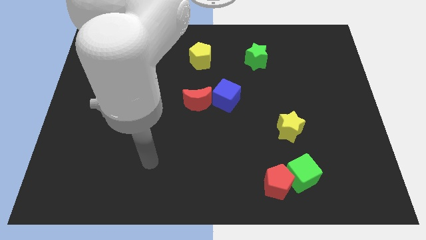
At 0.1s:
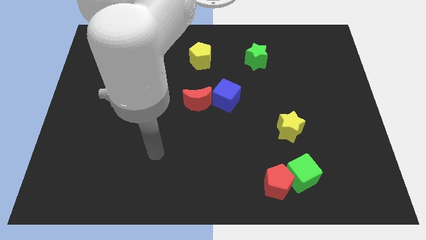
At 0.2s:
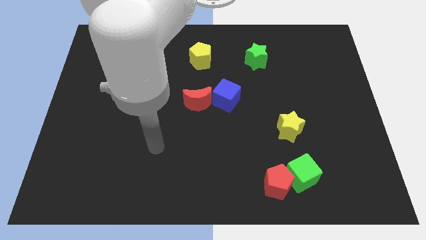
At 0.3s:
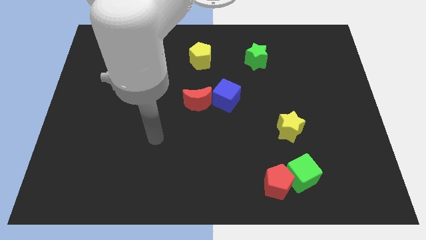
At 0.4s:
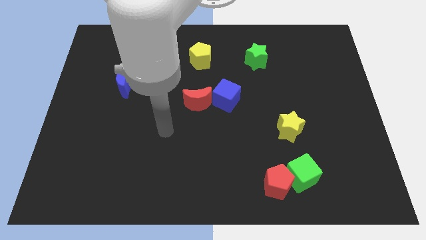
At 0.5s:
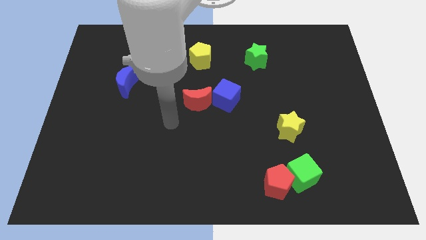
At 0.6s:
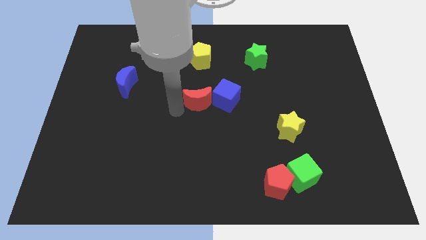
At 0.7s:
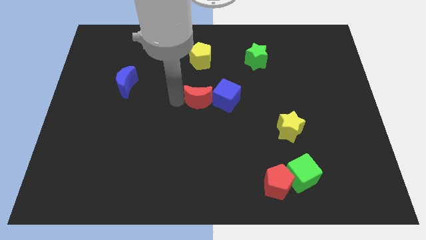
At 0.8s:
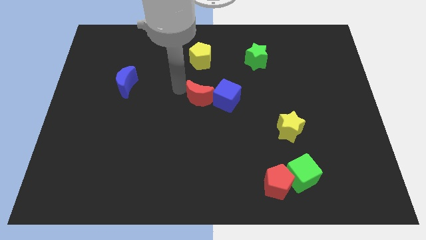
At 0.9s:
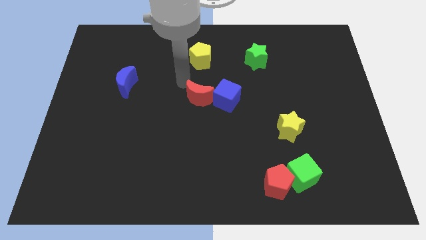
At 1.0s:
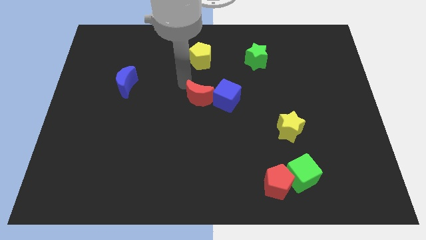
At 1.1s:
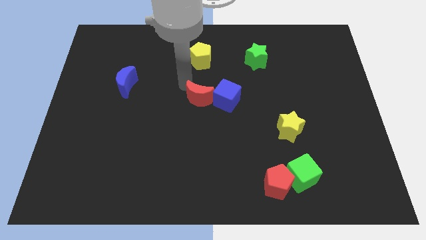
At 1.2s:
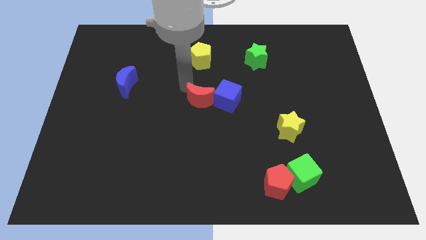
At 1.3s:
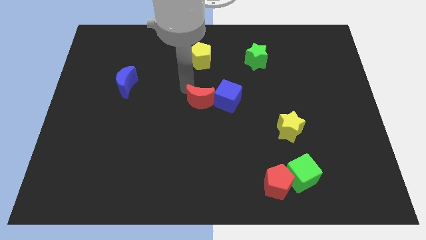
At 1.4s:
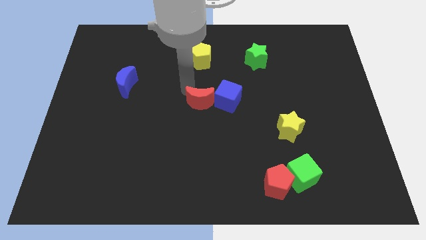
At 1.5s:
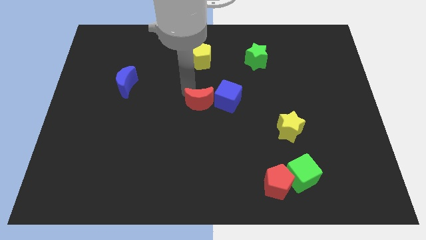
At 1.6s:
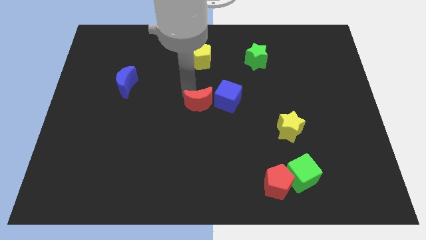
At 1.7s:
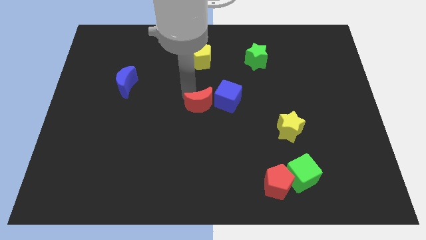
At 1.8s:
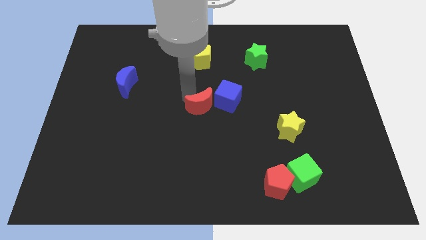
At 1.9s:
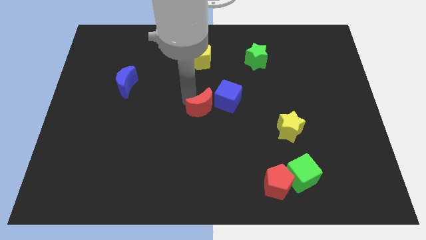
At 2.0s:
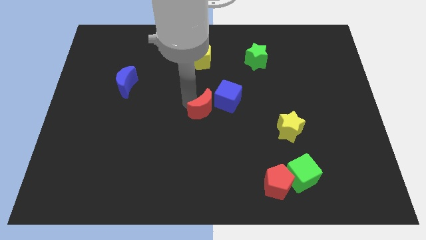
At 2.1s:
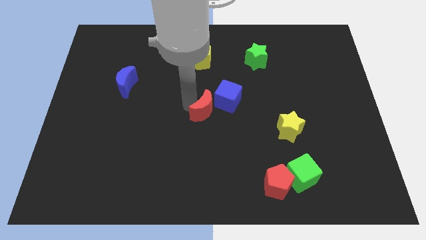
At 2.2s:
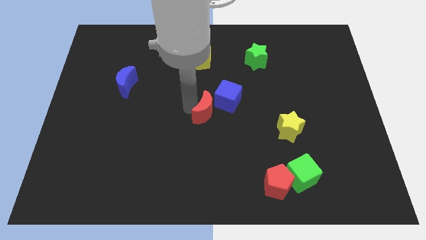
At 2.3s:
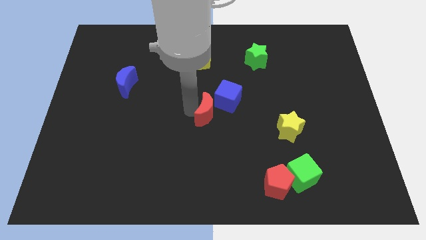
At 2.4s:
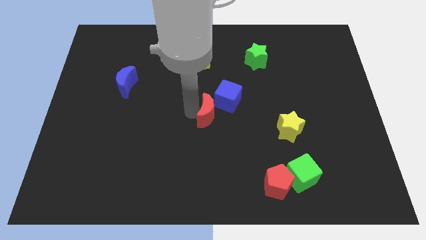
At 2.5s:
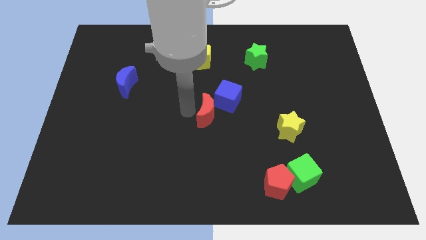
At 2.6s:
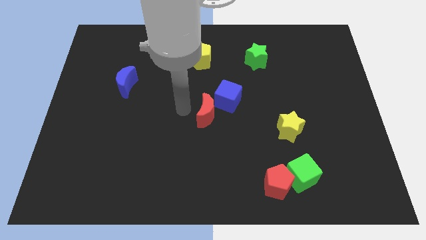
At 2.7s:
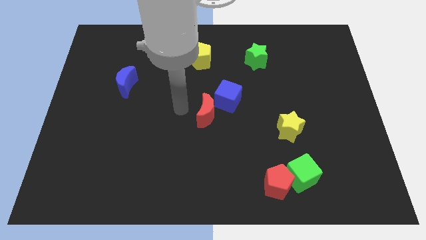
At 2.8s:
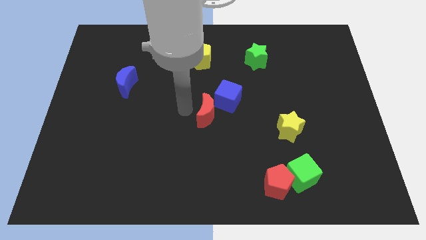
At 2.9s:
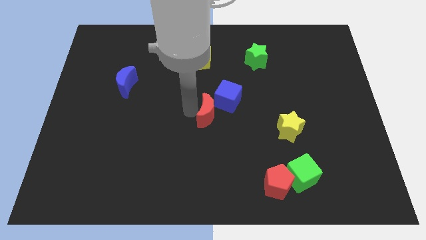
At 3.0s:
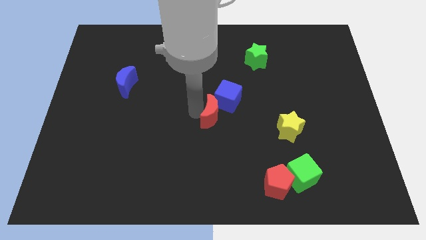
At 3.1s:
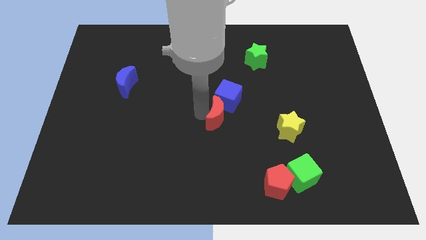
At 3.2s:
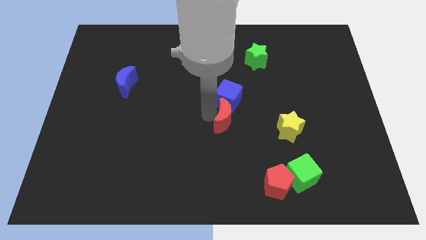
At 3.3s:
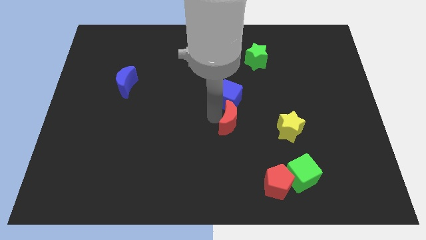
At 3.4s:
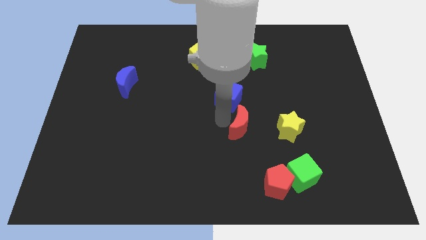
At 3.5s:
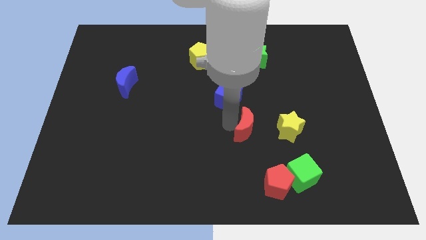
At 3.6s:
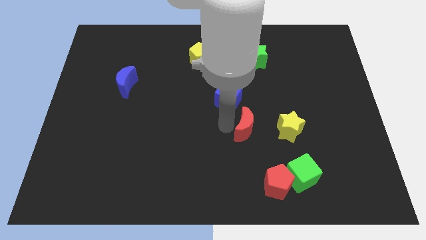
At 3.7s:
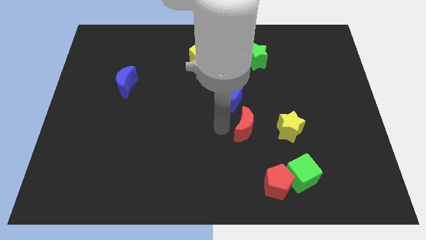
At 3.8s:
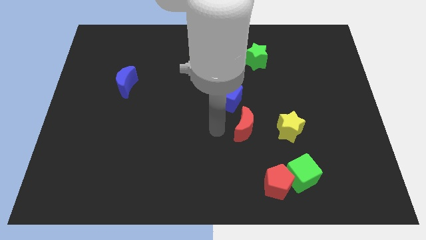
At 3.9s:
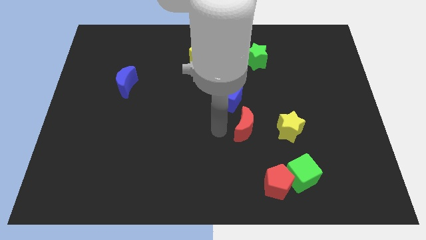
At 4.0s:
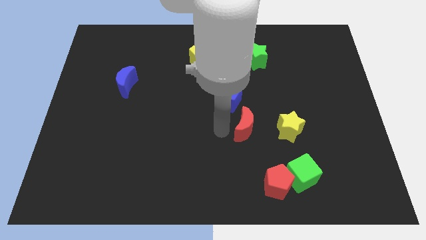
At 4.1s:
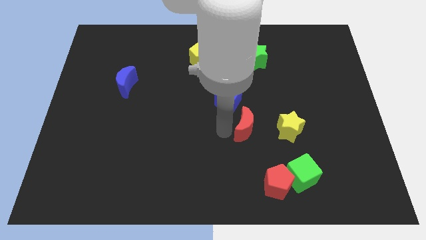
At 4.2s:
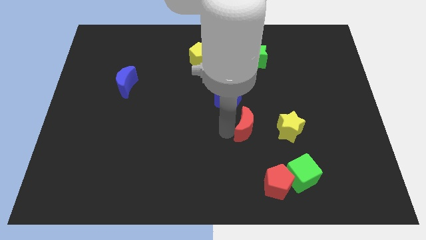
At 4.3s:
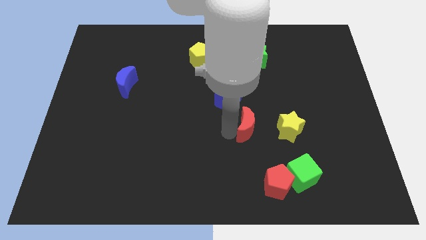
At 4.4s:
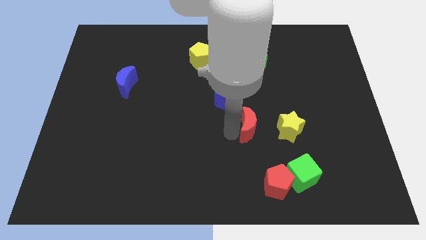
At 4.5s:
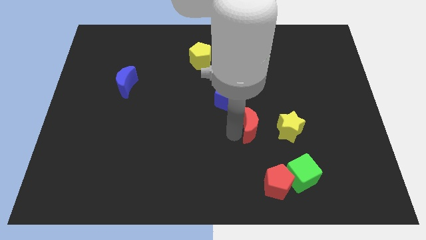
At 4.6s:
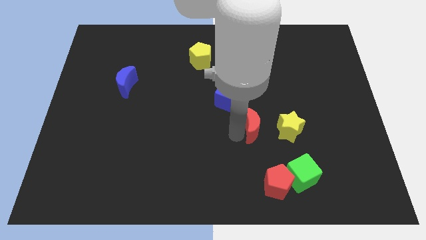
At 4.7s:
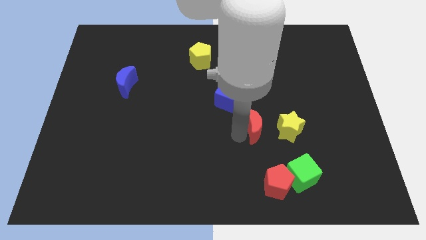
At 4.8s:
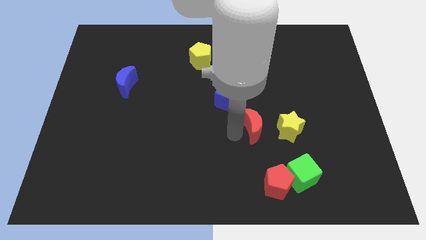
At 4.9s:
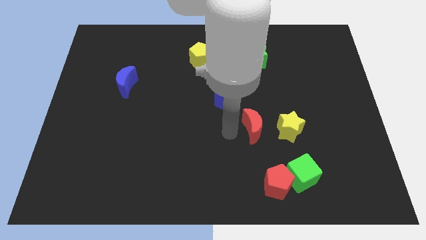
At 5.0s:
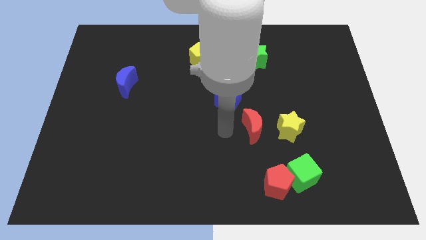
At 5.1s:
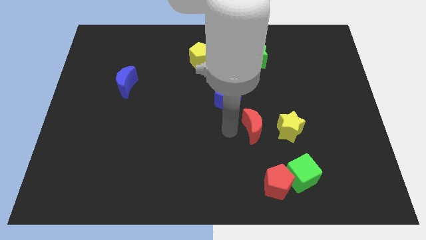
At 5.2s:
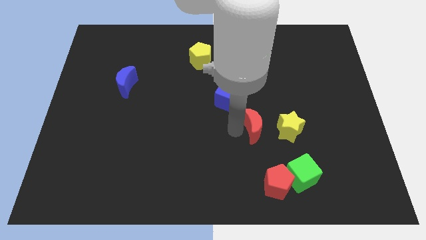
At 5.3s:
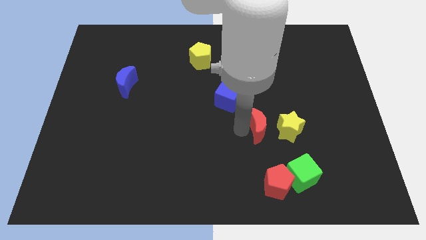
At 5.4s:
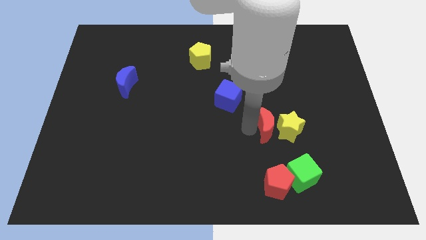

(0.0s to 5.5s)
move the red moon to the yellow star

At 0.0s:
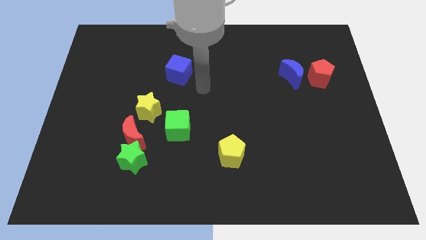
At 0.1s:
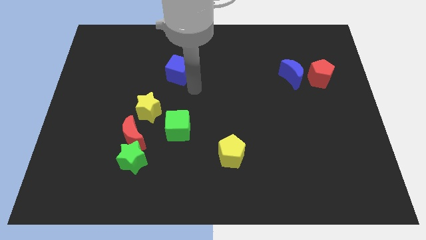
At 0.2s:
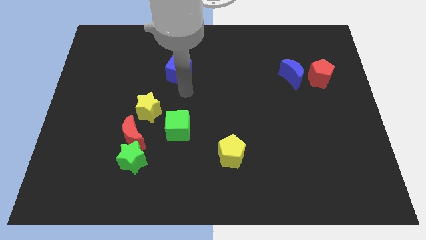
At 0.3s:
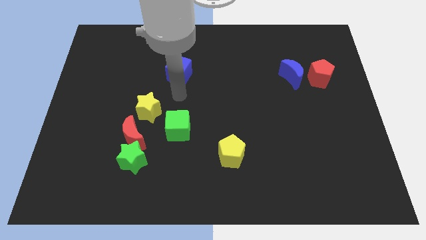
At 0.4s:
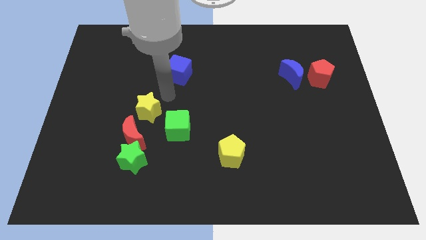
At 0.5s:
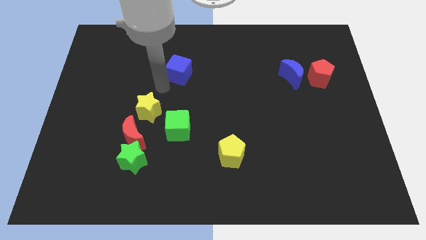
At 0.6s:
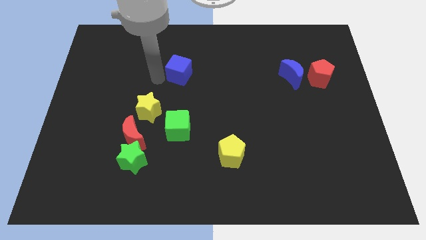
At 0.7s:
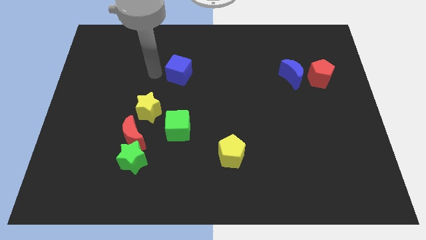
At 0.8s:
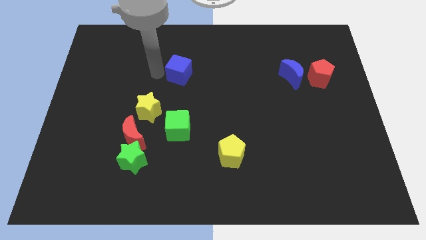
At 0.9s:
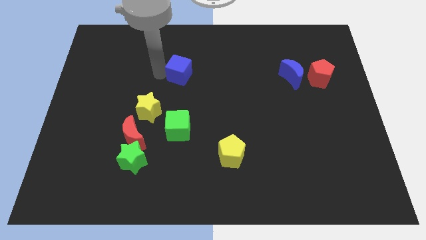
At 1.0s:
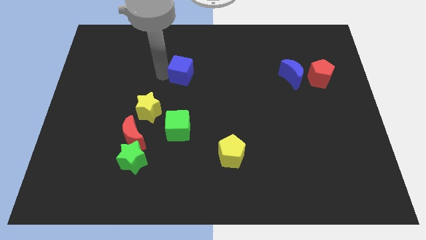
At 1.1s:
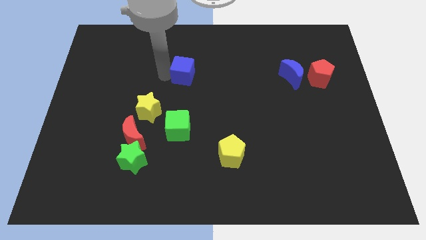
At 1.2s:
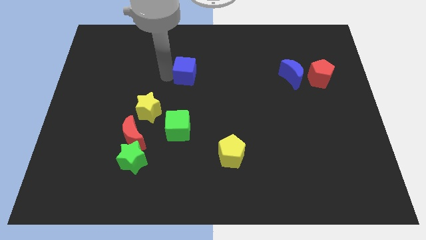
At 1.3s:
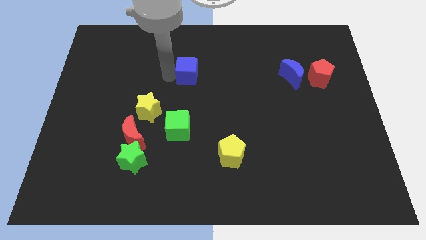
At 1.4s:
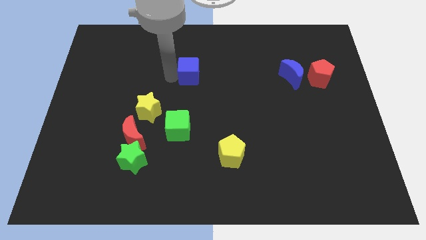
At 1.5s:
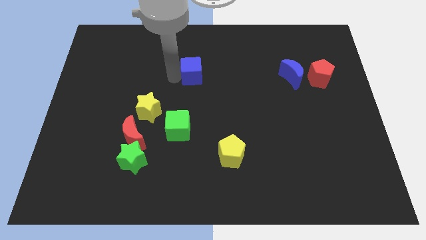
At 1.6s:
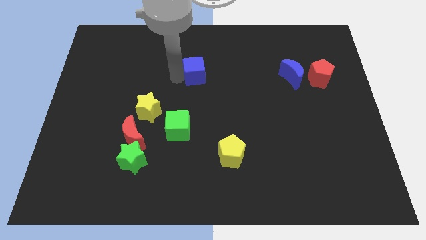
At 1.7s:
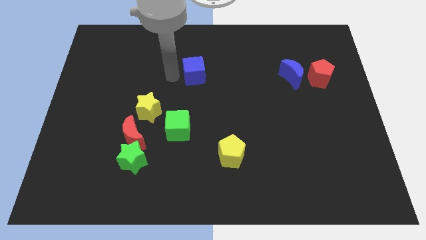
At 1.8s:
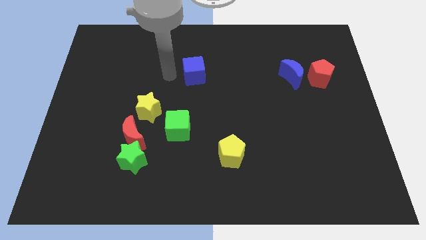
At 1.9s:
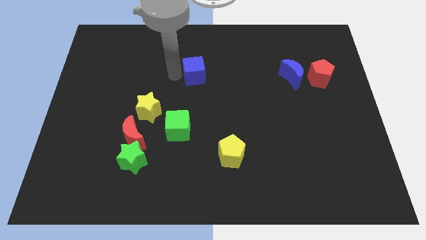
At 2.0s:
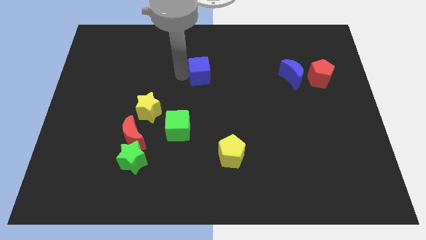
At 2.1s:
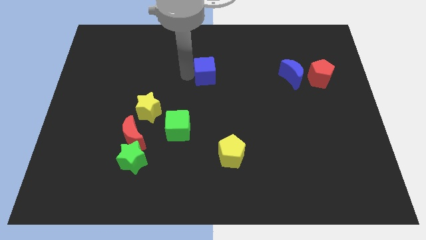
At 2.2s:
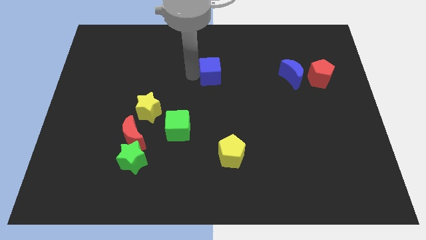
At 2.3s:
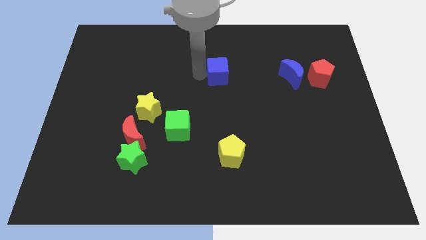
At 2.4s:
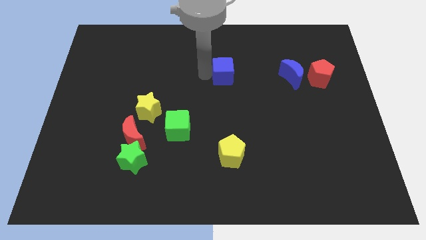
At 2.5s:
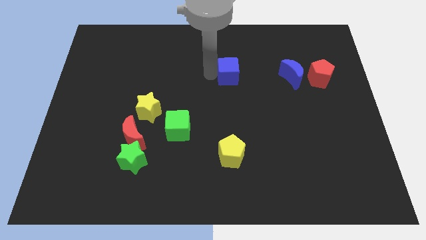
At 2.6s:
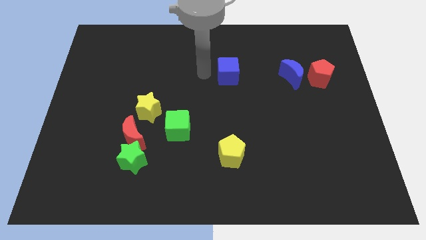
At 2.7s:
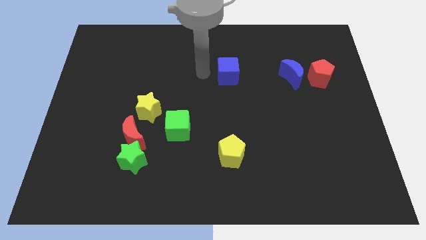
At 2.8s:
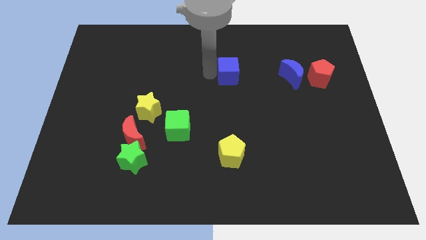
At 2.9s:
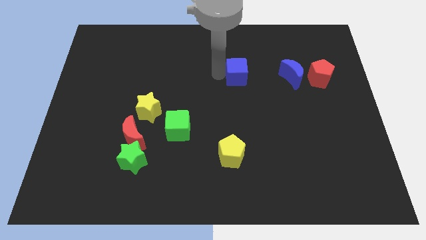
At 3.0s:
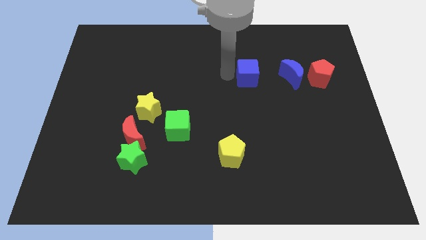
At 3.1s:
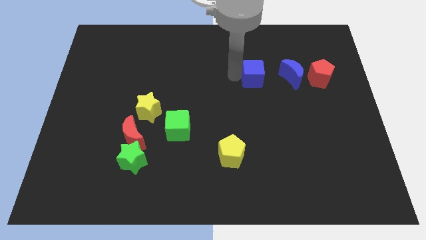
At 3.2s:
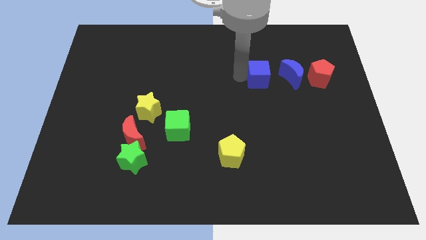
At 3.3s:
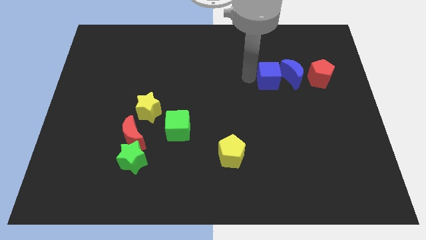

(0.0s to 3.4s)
move the blue cube next to the blue moon
